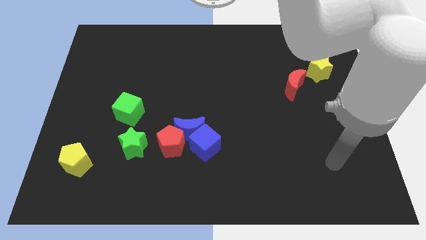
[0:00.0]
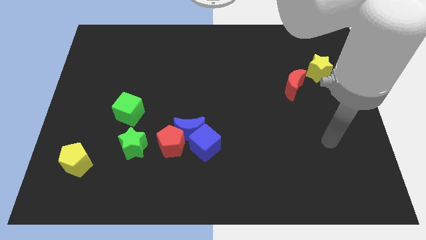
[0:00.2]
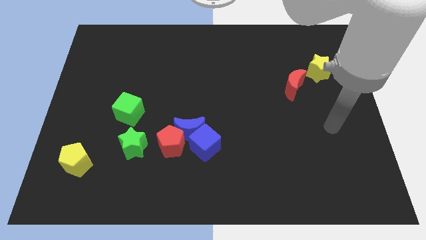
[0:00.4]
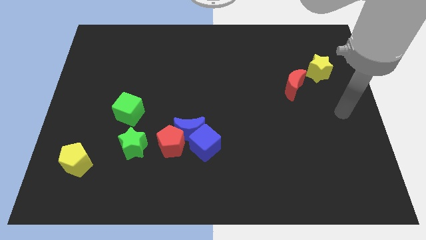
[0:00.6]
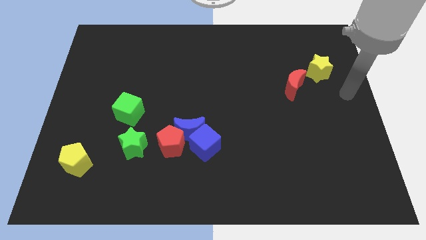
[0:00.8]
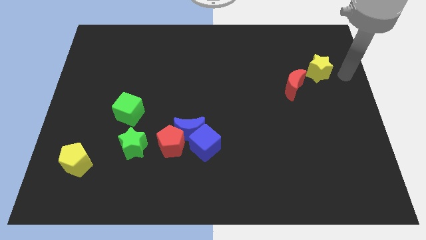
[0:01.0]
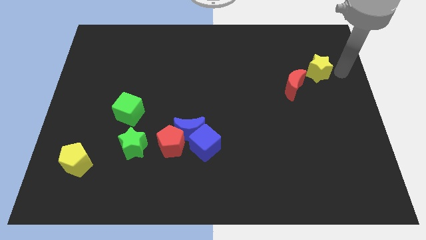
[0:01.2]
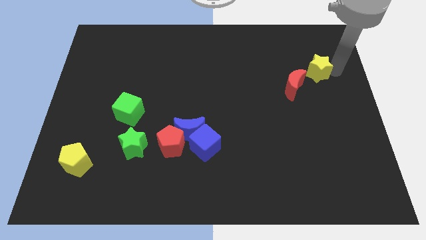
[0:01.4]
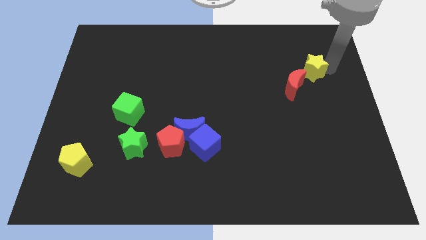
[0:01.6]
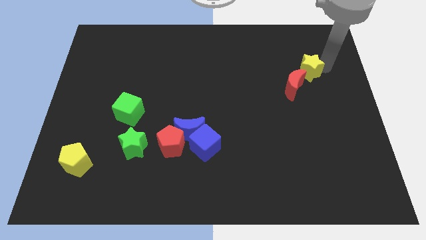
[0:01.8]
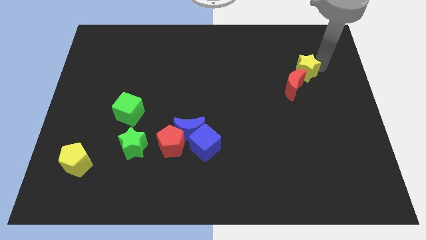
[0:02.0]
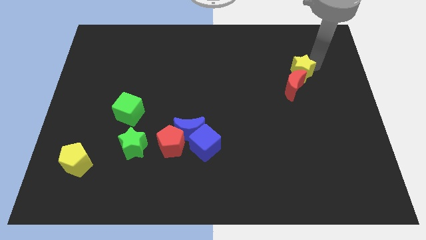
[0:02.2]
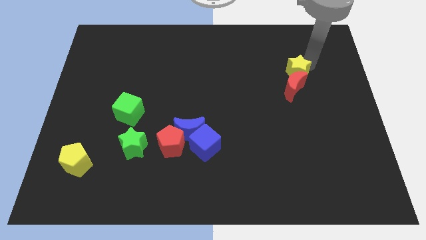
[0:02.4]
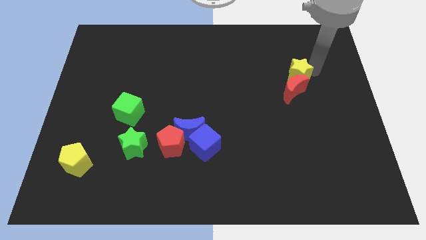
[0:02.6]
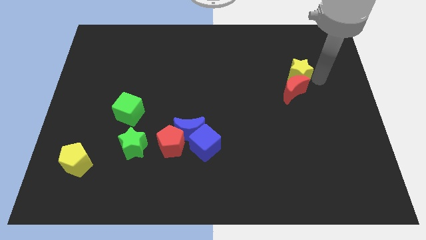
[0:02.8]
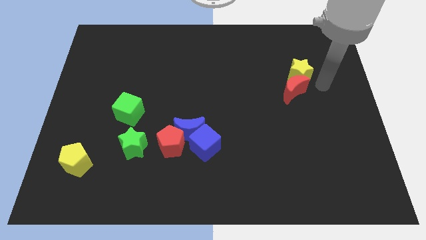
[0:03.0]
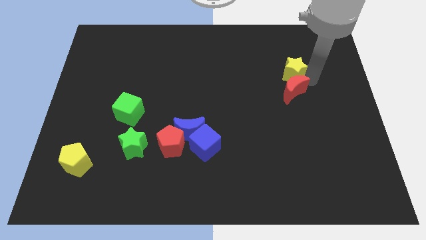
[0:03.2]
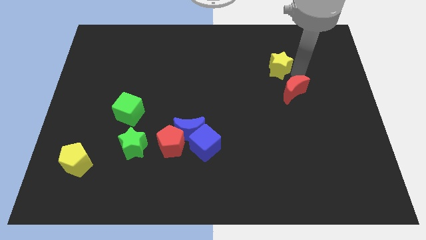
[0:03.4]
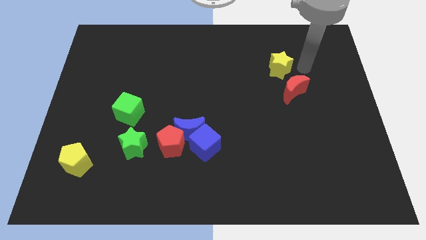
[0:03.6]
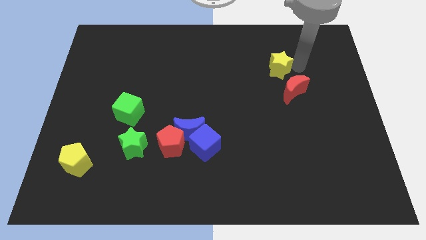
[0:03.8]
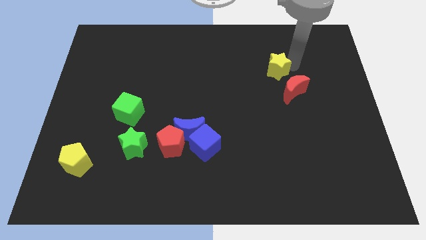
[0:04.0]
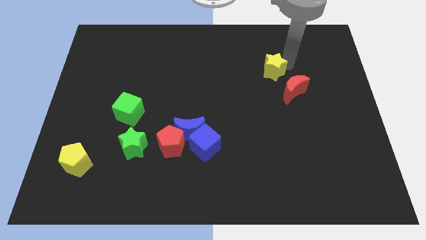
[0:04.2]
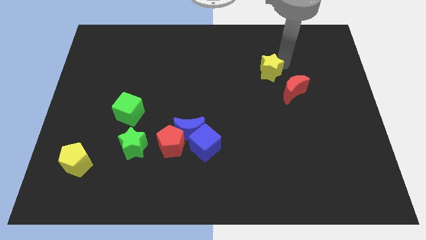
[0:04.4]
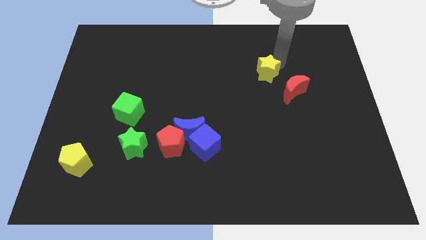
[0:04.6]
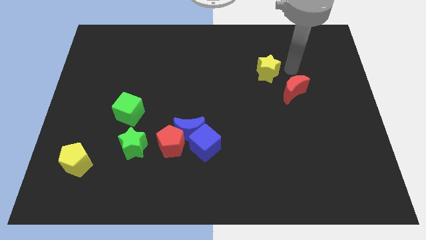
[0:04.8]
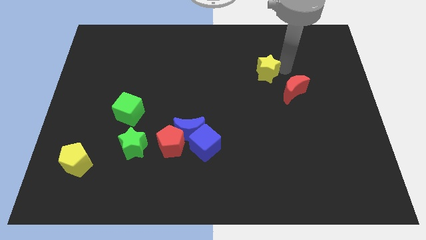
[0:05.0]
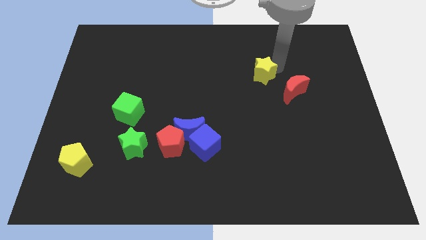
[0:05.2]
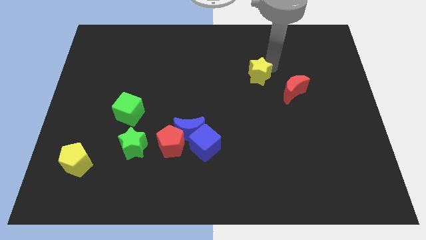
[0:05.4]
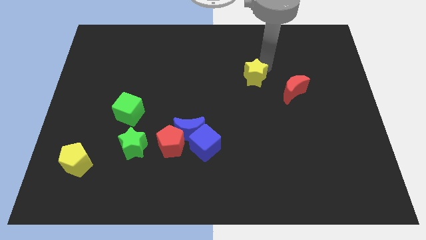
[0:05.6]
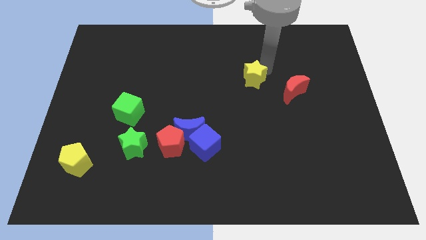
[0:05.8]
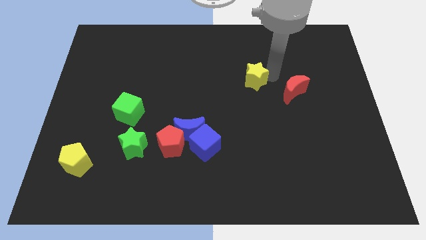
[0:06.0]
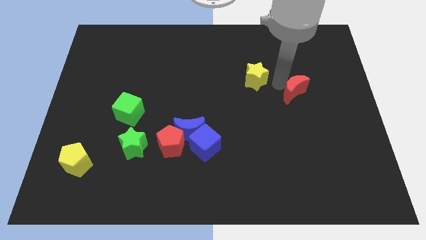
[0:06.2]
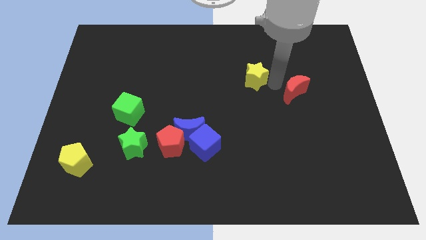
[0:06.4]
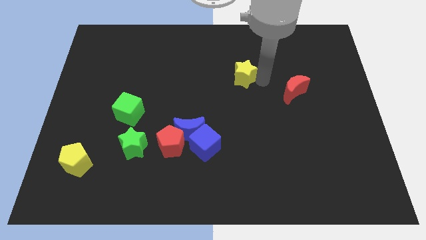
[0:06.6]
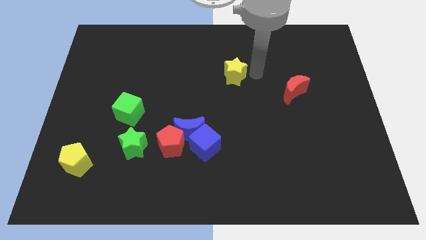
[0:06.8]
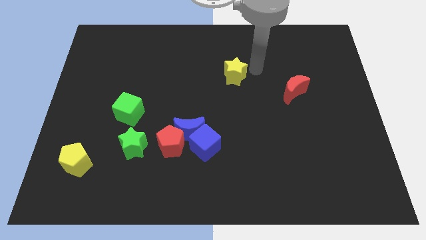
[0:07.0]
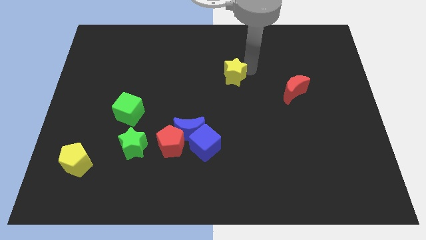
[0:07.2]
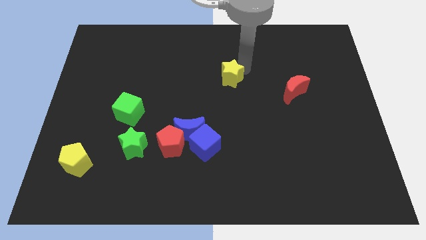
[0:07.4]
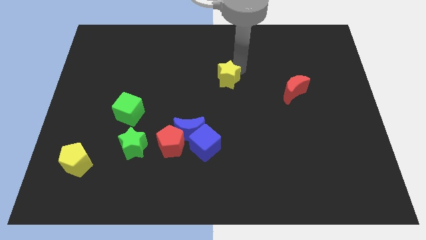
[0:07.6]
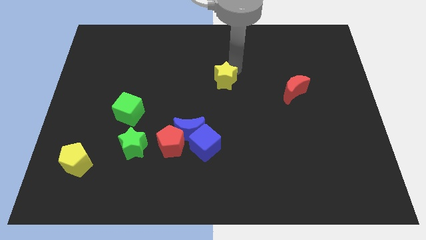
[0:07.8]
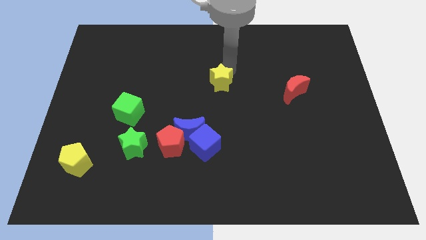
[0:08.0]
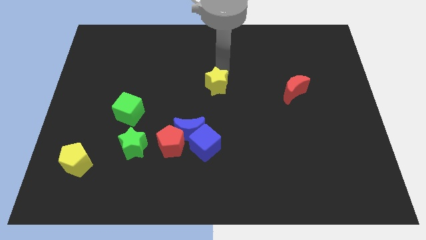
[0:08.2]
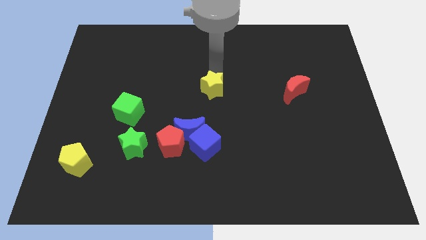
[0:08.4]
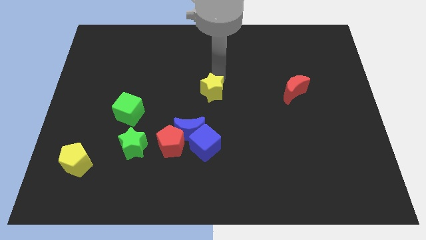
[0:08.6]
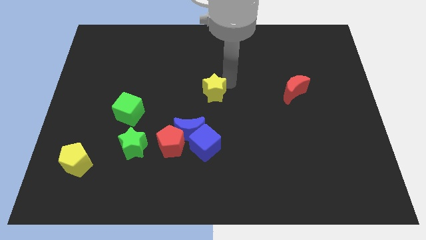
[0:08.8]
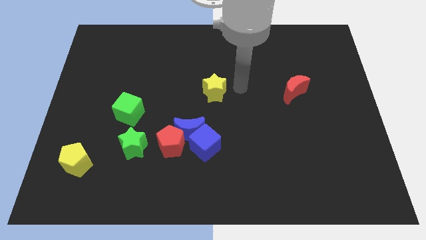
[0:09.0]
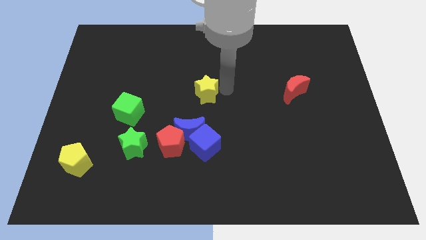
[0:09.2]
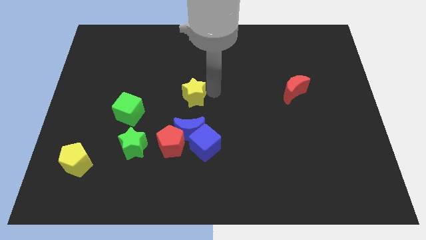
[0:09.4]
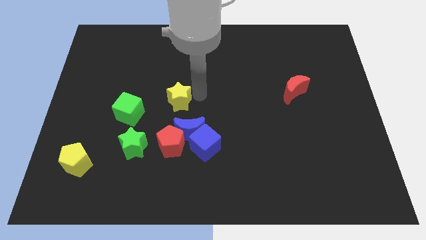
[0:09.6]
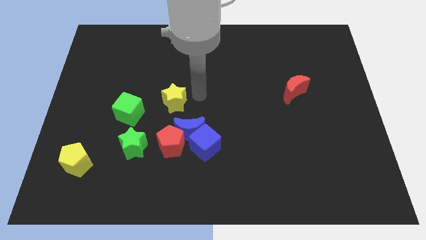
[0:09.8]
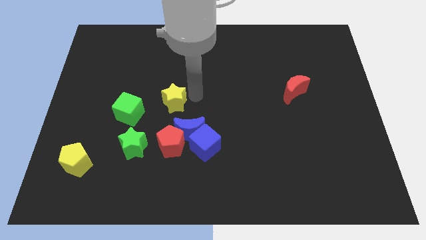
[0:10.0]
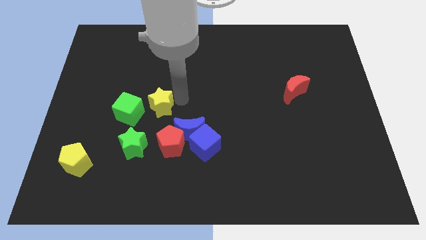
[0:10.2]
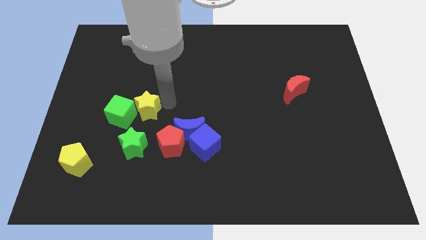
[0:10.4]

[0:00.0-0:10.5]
slide the yellow star next to the green cube

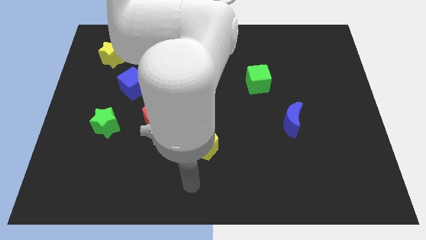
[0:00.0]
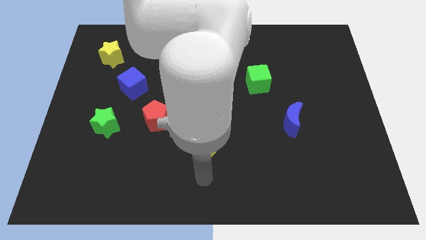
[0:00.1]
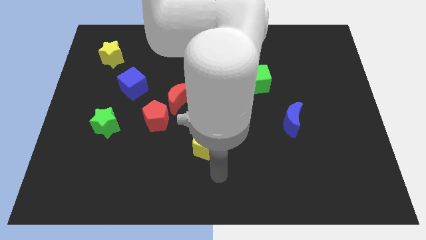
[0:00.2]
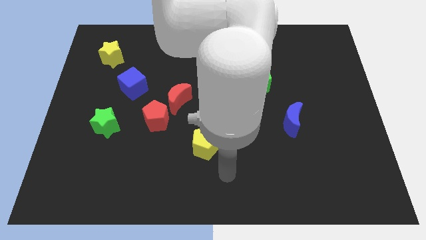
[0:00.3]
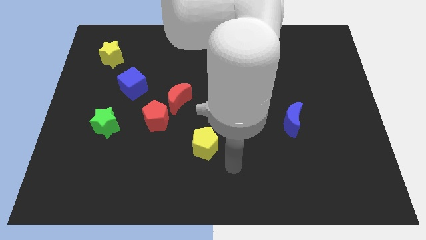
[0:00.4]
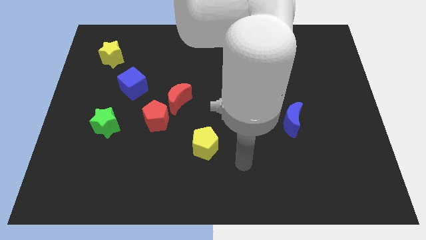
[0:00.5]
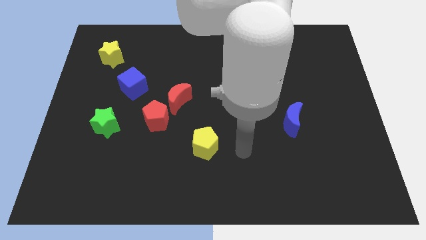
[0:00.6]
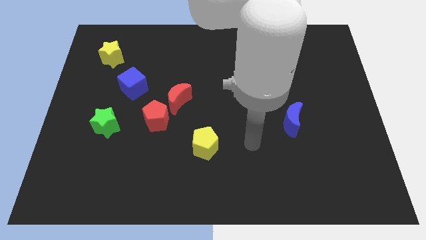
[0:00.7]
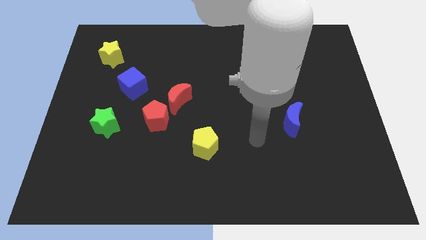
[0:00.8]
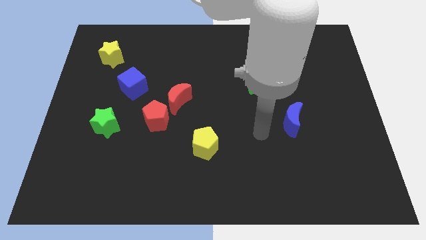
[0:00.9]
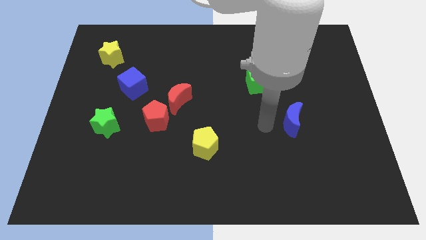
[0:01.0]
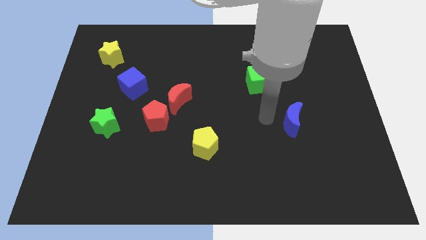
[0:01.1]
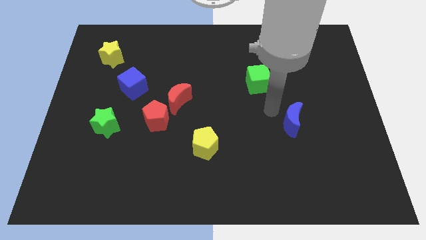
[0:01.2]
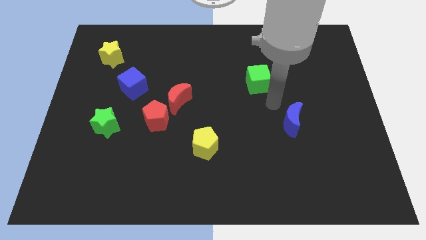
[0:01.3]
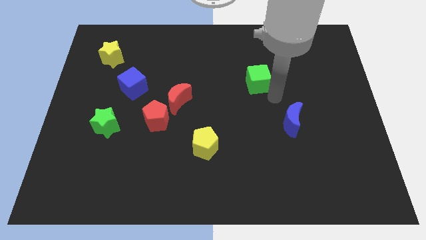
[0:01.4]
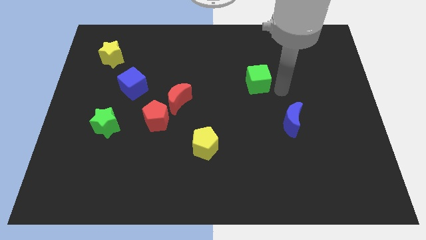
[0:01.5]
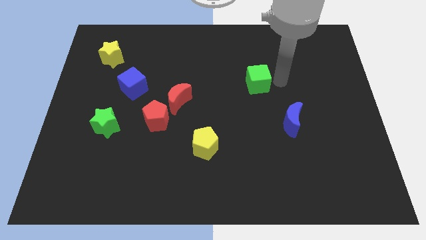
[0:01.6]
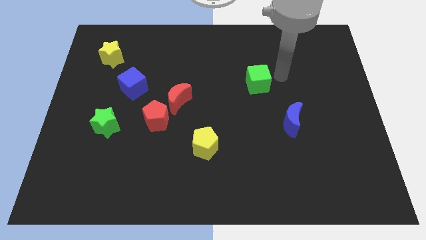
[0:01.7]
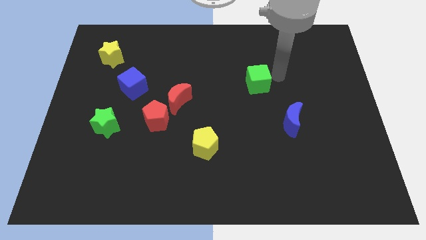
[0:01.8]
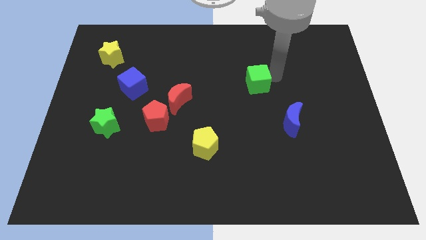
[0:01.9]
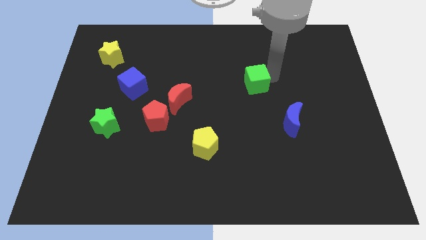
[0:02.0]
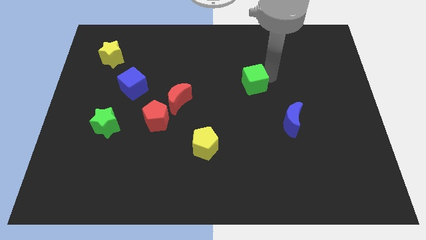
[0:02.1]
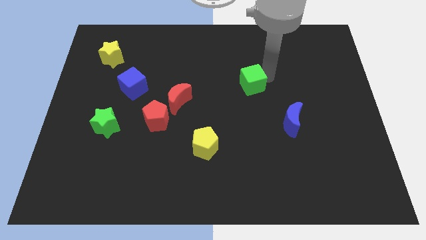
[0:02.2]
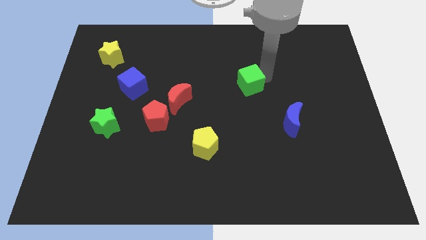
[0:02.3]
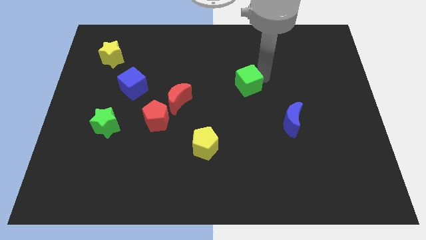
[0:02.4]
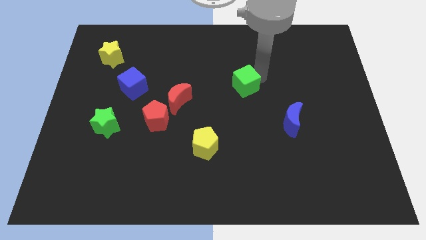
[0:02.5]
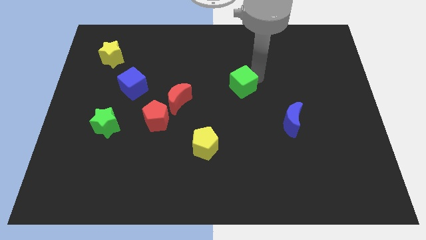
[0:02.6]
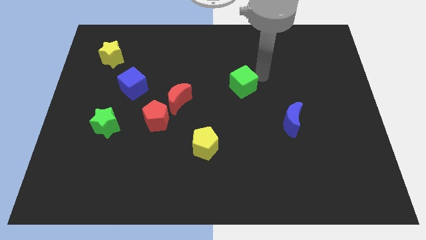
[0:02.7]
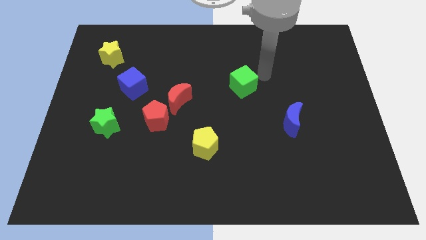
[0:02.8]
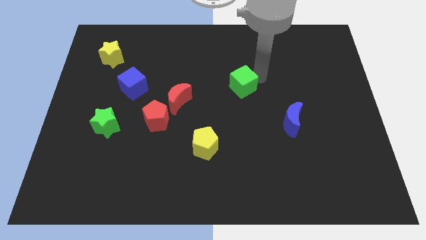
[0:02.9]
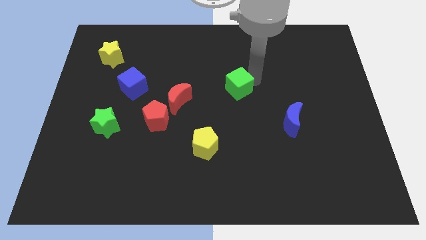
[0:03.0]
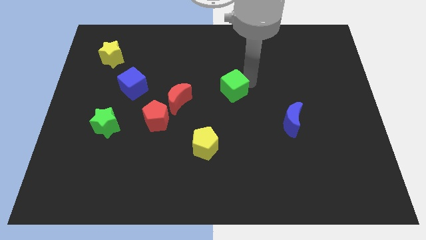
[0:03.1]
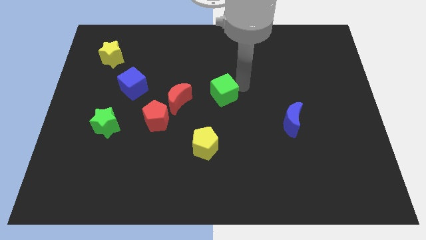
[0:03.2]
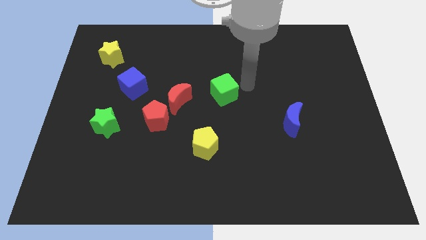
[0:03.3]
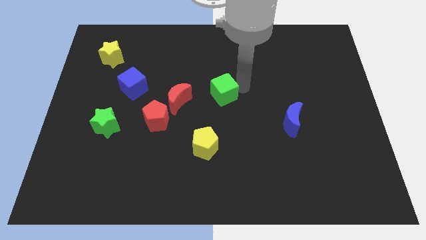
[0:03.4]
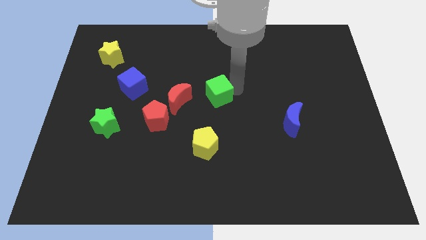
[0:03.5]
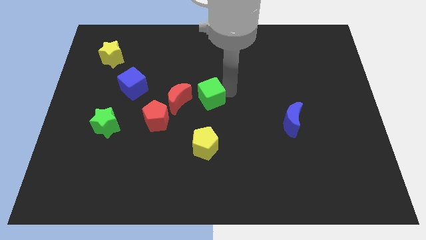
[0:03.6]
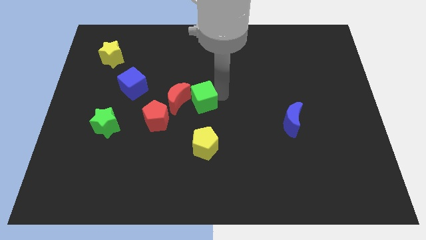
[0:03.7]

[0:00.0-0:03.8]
slide the green cube next to the red moon
